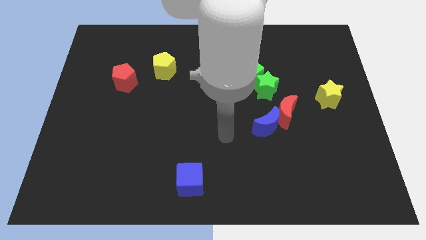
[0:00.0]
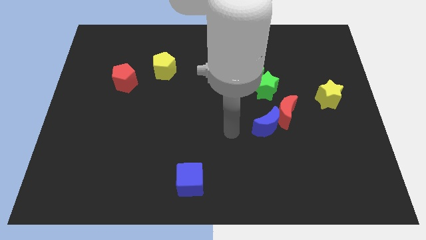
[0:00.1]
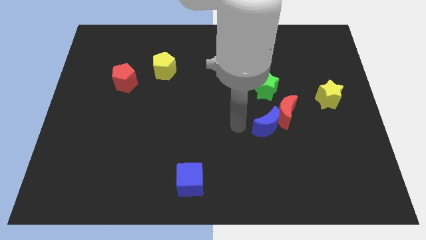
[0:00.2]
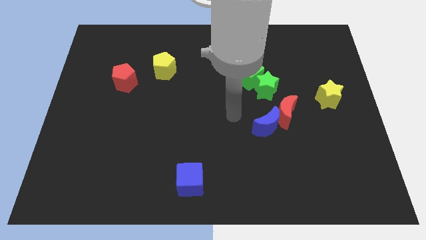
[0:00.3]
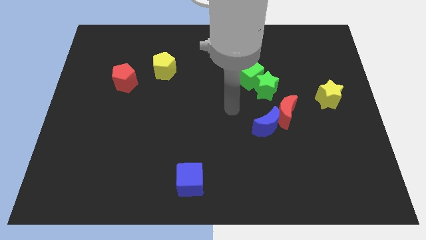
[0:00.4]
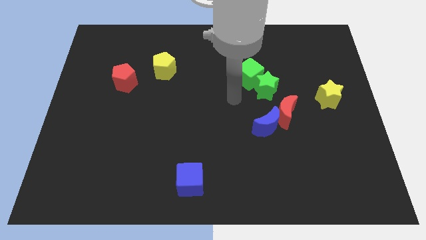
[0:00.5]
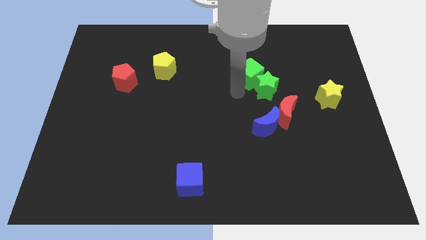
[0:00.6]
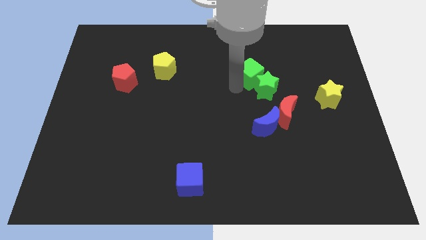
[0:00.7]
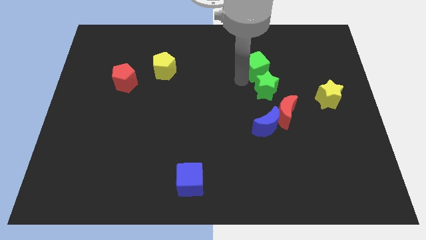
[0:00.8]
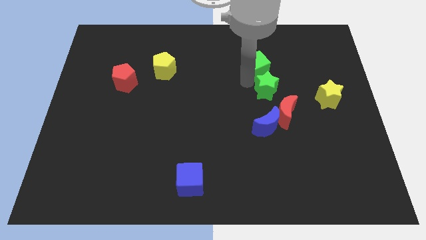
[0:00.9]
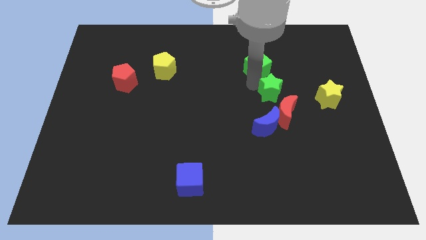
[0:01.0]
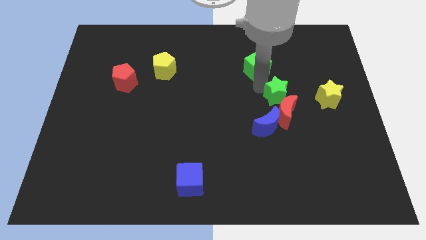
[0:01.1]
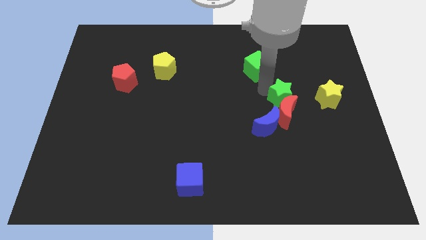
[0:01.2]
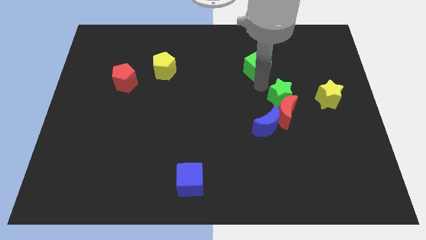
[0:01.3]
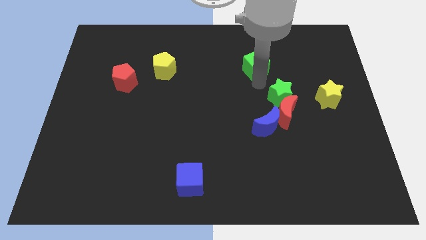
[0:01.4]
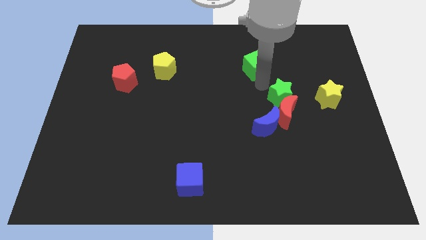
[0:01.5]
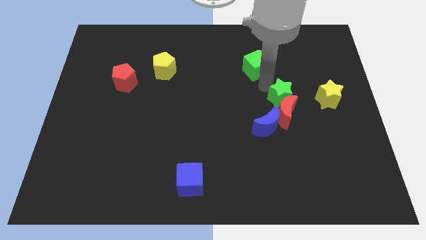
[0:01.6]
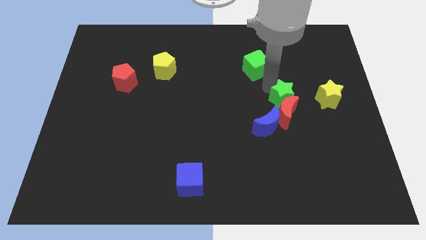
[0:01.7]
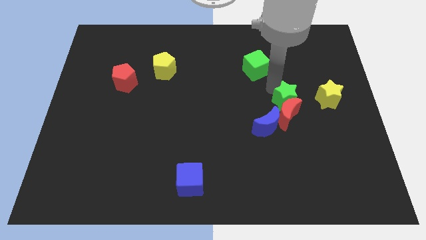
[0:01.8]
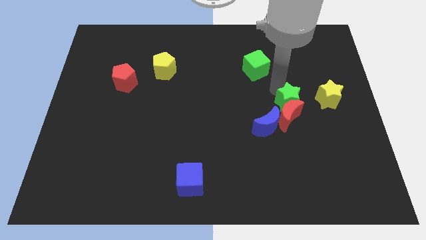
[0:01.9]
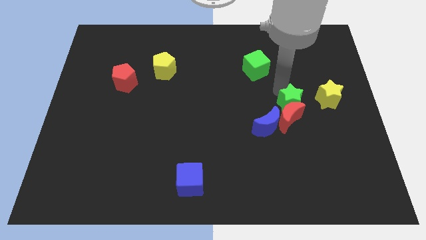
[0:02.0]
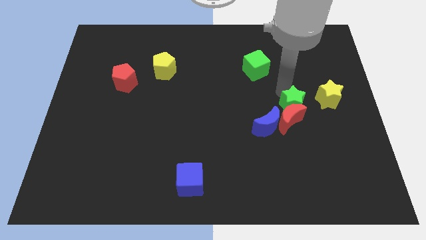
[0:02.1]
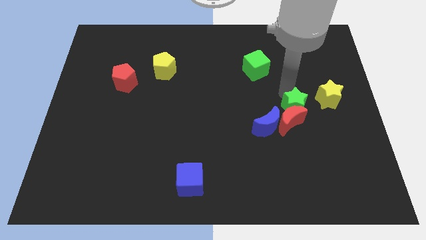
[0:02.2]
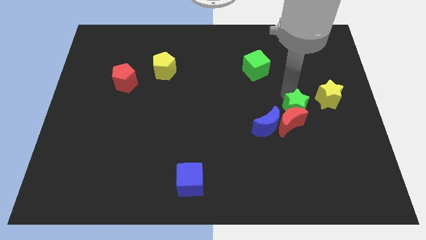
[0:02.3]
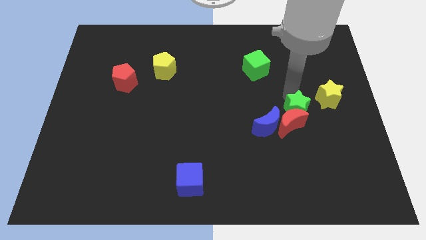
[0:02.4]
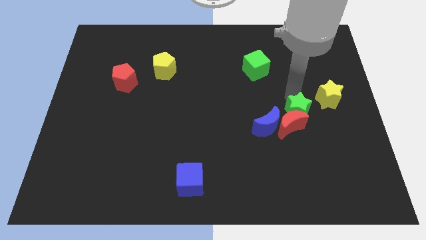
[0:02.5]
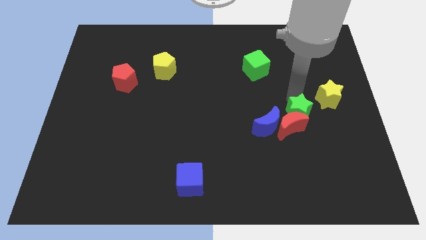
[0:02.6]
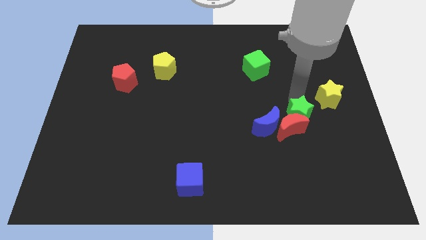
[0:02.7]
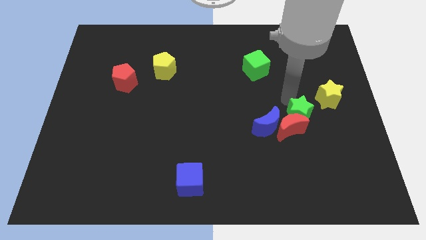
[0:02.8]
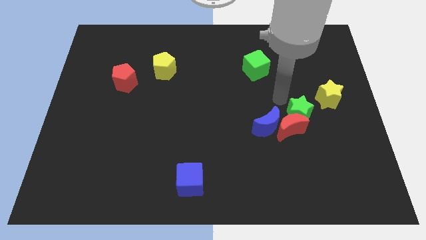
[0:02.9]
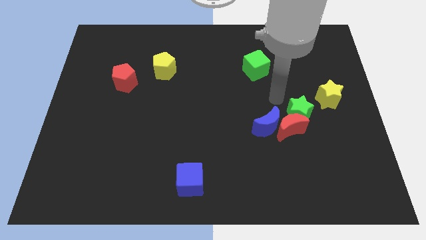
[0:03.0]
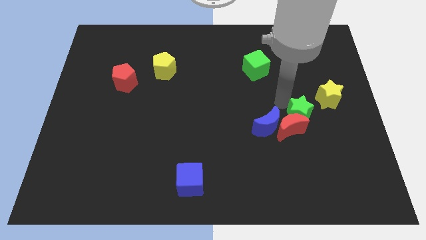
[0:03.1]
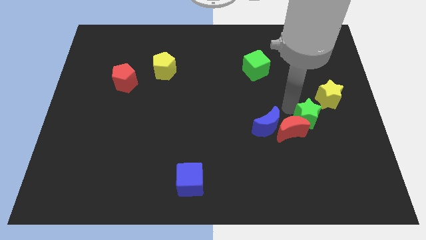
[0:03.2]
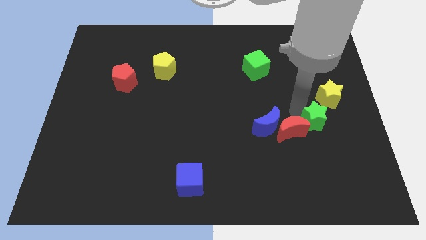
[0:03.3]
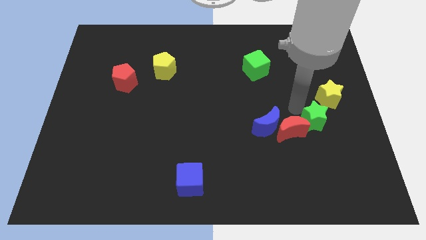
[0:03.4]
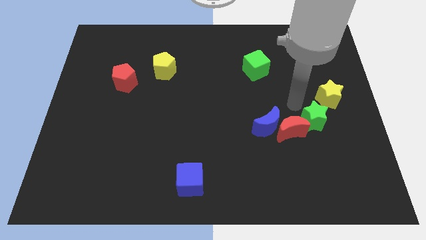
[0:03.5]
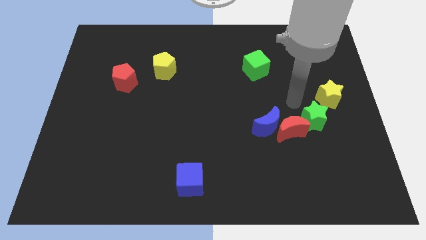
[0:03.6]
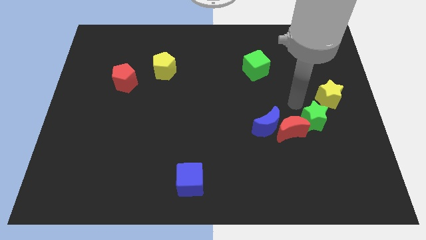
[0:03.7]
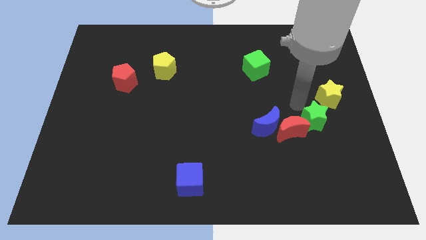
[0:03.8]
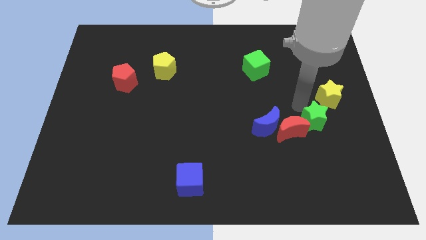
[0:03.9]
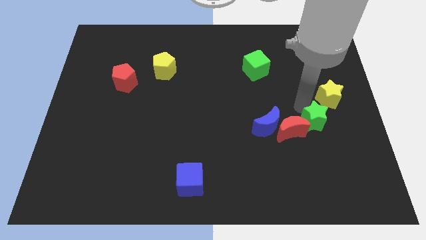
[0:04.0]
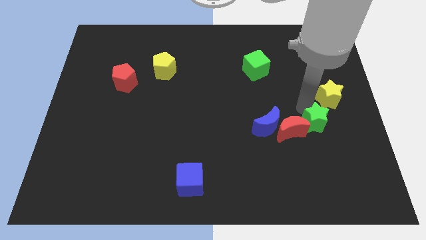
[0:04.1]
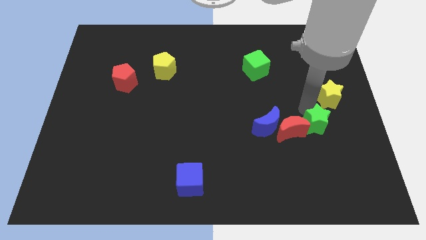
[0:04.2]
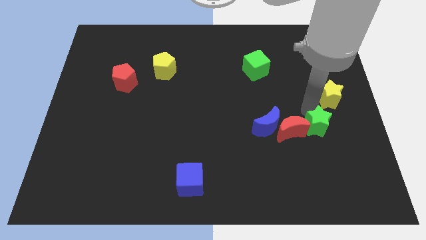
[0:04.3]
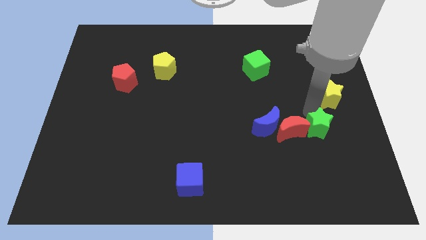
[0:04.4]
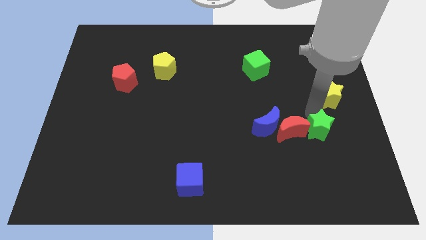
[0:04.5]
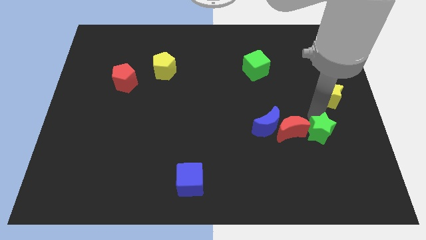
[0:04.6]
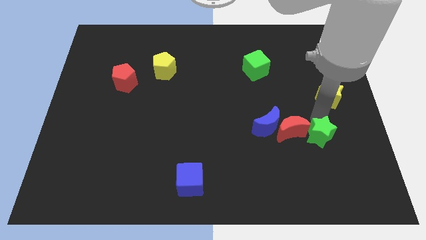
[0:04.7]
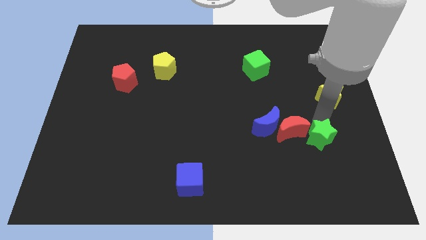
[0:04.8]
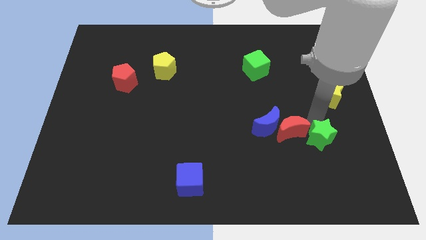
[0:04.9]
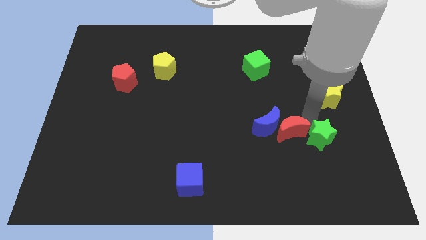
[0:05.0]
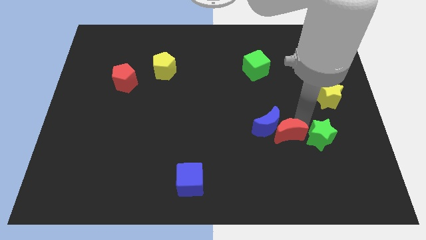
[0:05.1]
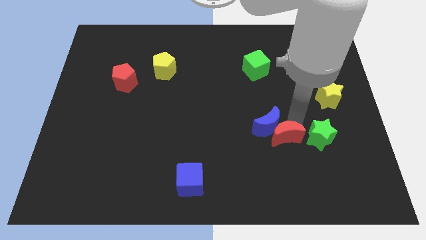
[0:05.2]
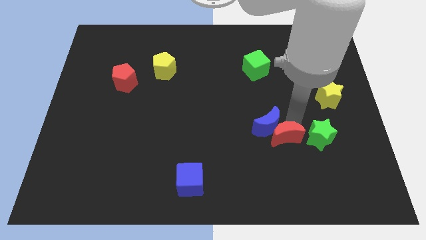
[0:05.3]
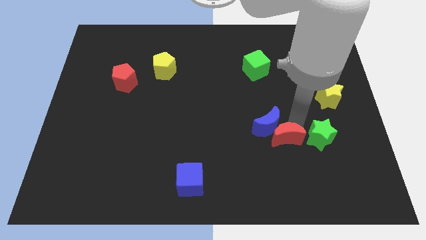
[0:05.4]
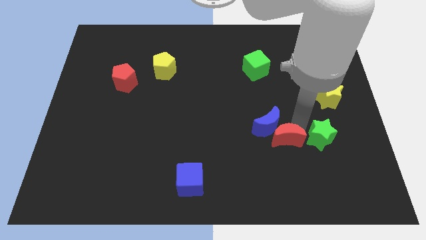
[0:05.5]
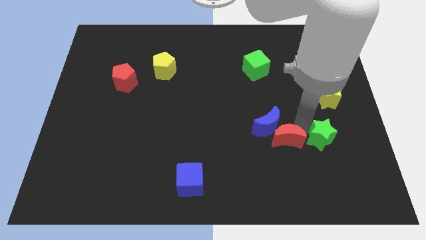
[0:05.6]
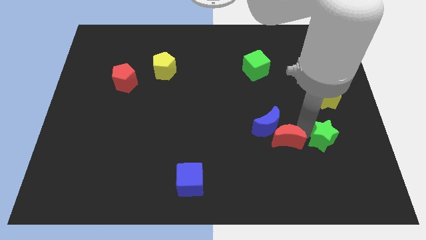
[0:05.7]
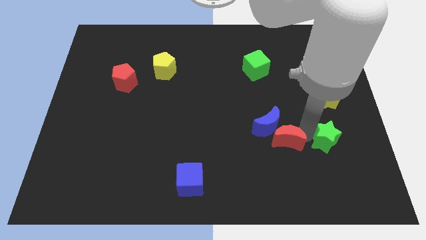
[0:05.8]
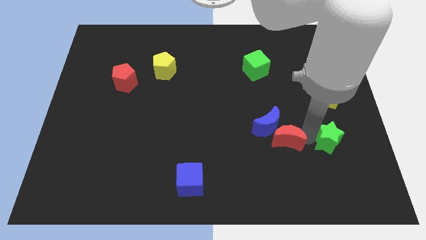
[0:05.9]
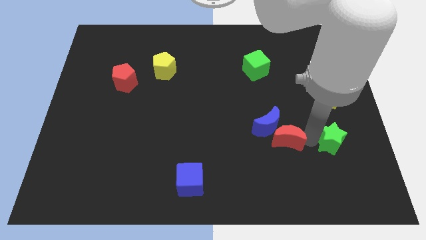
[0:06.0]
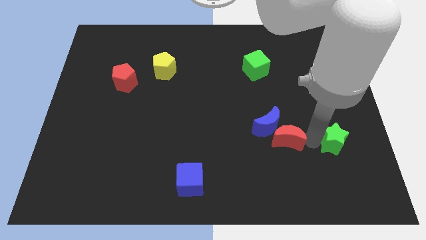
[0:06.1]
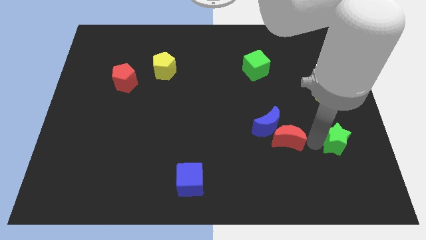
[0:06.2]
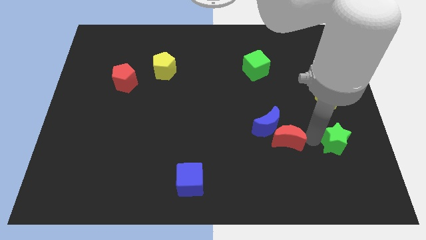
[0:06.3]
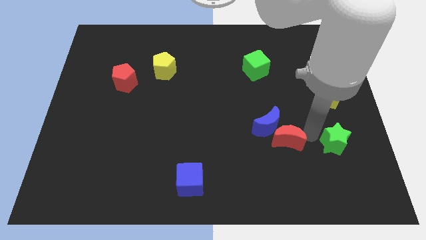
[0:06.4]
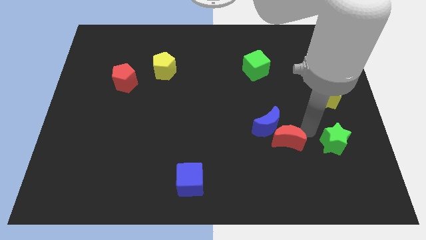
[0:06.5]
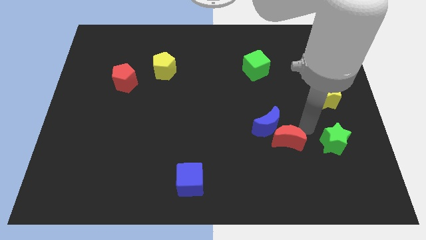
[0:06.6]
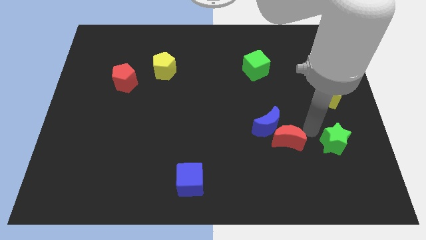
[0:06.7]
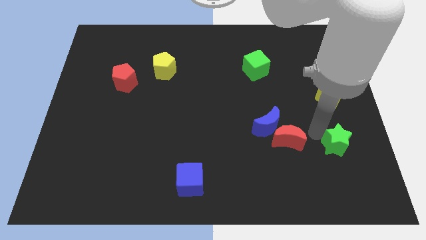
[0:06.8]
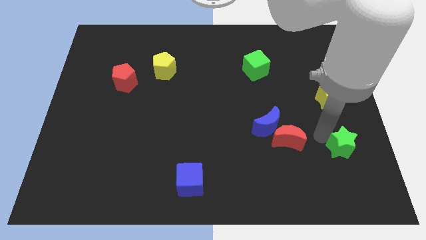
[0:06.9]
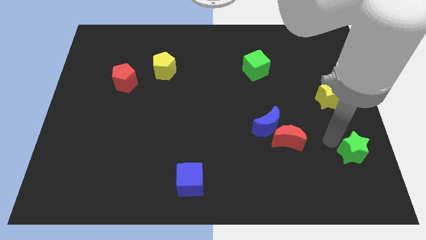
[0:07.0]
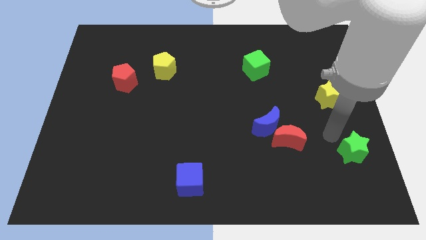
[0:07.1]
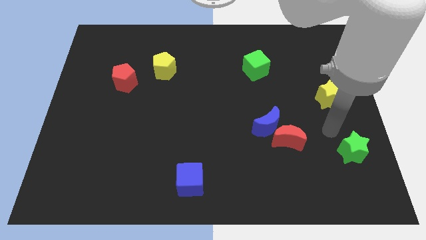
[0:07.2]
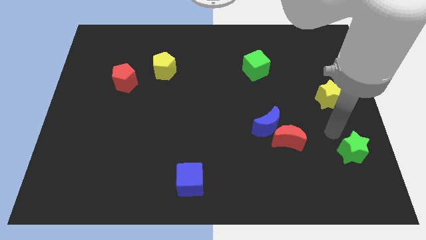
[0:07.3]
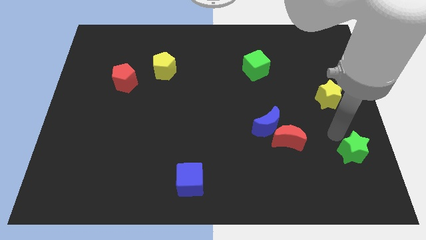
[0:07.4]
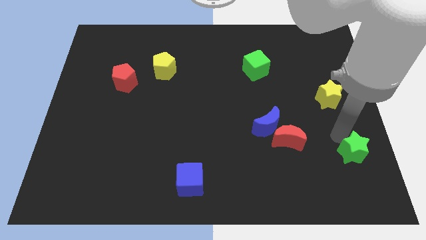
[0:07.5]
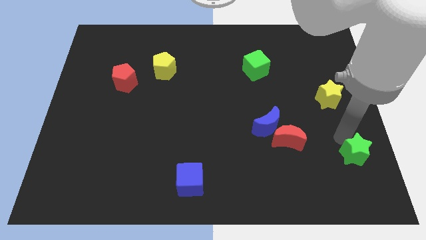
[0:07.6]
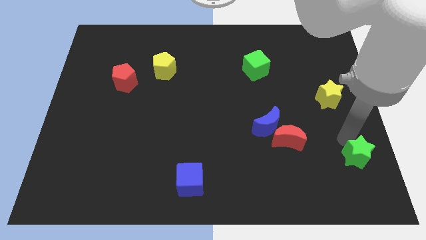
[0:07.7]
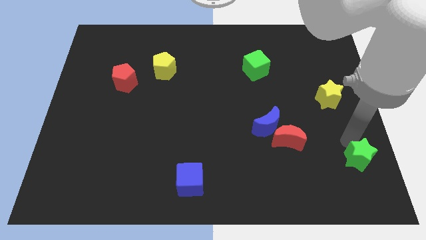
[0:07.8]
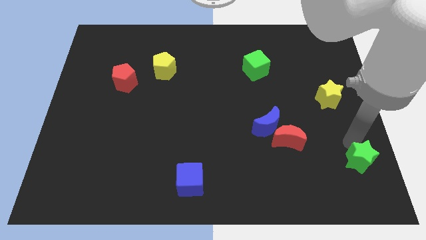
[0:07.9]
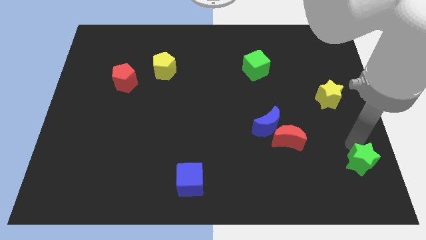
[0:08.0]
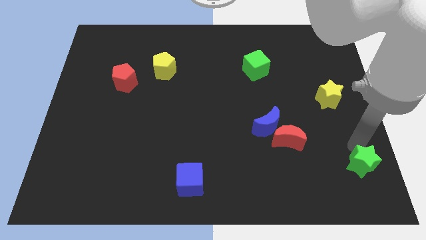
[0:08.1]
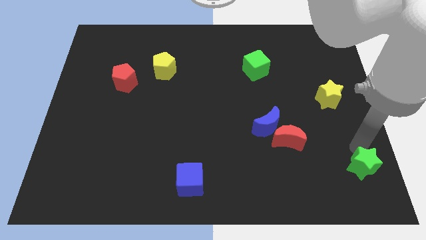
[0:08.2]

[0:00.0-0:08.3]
put the green star to the bottom right
